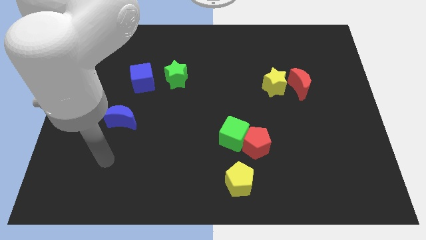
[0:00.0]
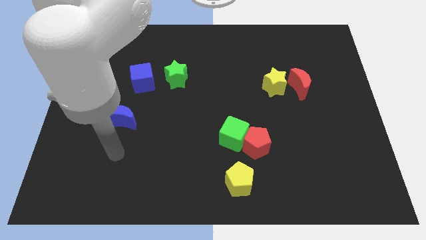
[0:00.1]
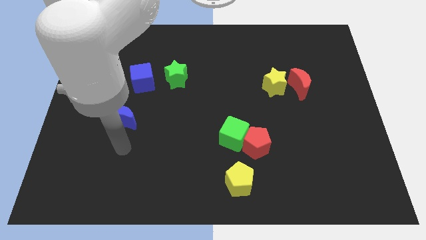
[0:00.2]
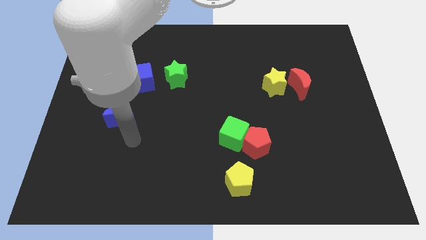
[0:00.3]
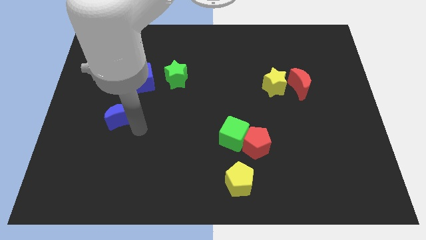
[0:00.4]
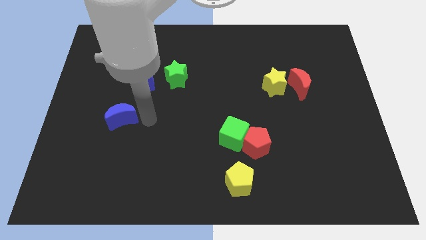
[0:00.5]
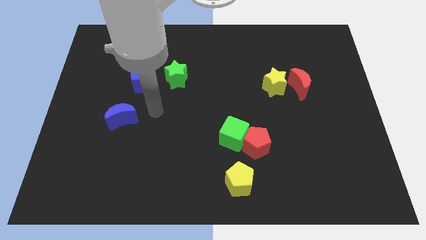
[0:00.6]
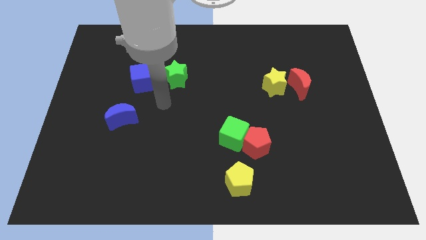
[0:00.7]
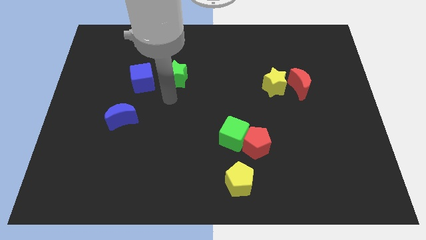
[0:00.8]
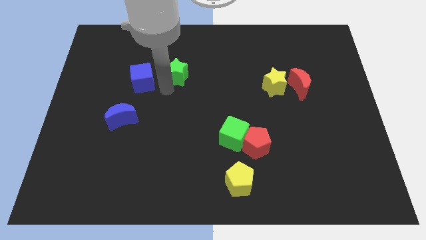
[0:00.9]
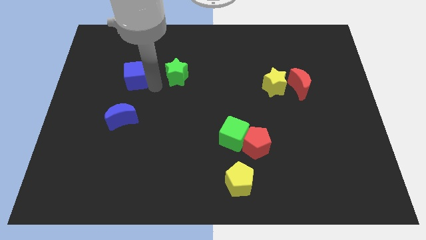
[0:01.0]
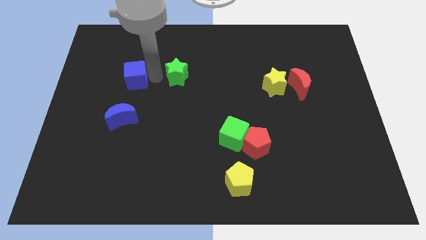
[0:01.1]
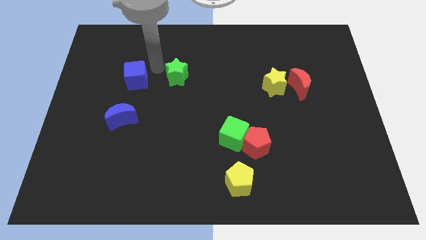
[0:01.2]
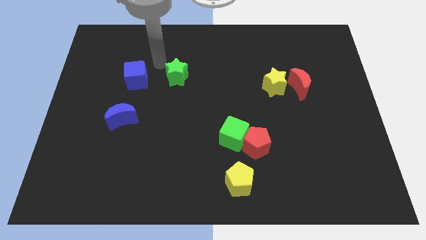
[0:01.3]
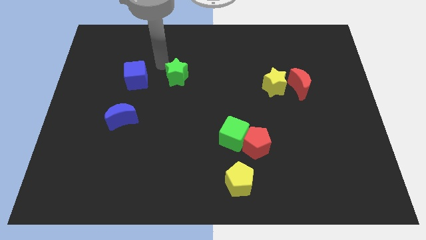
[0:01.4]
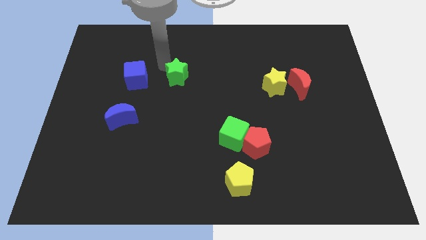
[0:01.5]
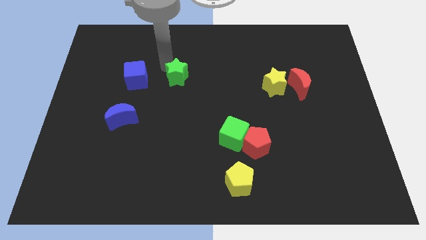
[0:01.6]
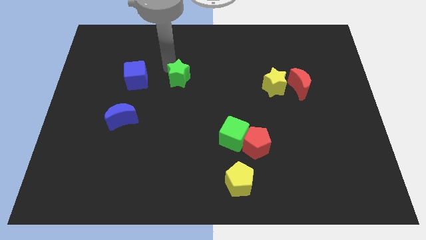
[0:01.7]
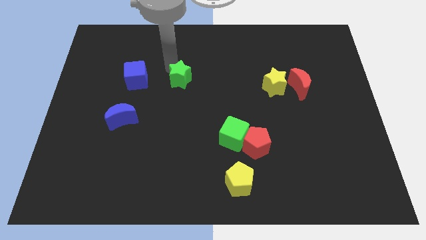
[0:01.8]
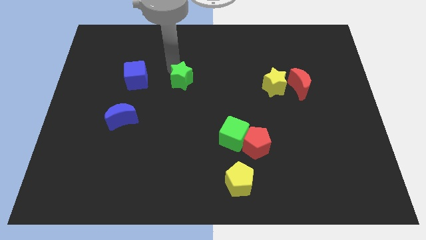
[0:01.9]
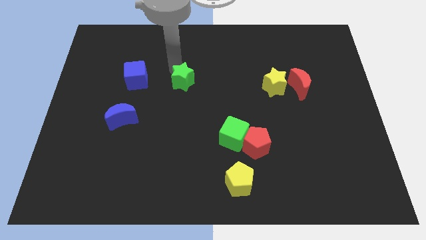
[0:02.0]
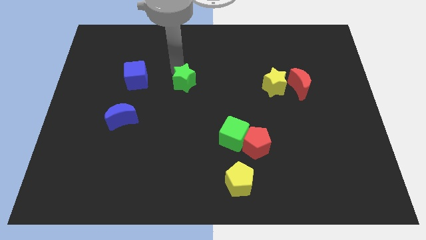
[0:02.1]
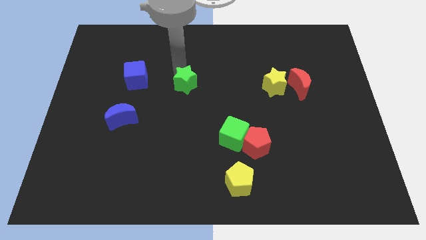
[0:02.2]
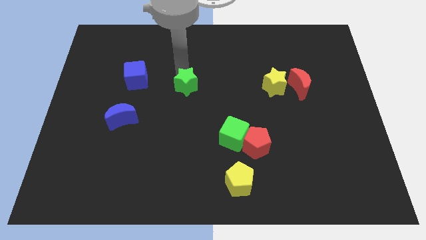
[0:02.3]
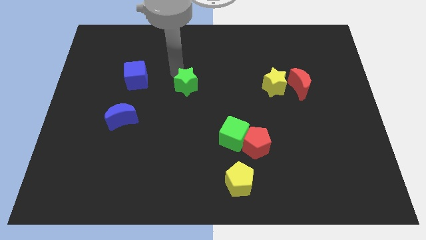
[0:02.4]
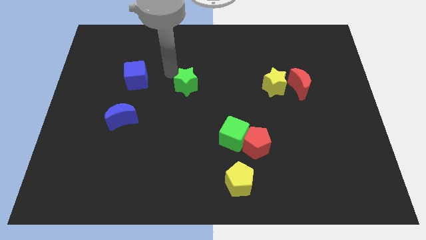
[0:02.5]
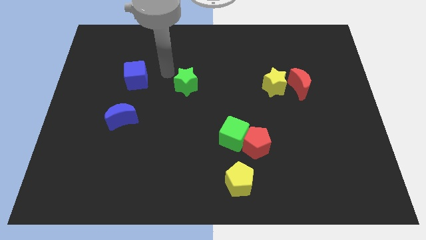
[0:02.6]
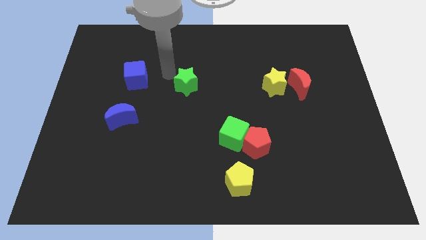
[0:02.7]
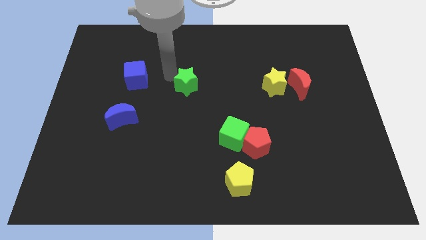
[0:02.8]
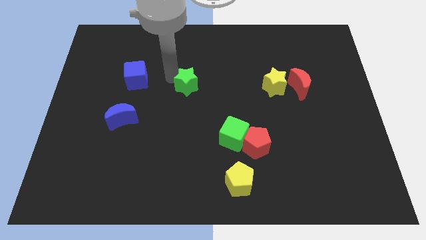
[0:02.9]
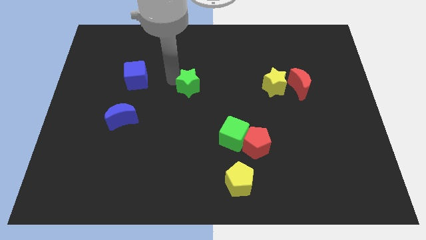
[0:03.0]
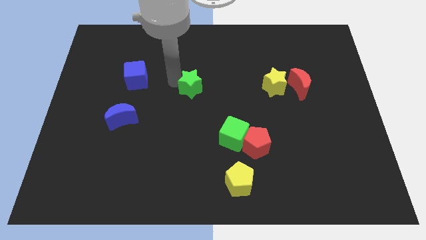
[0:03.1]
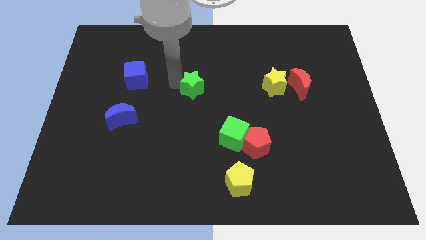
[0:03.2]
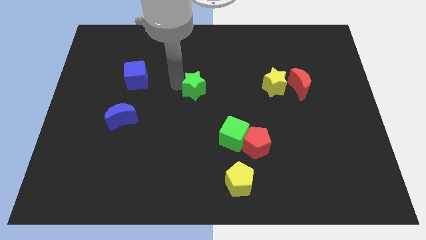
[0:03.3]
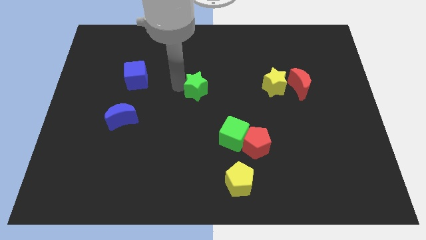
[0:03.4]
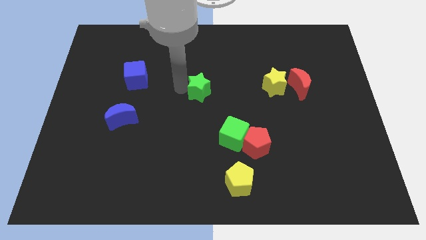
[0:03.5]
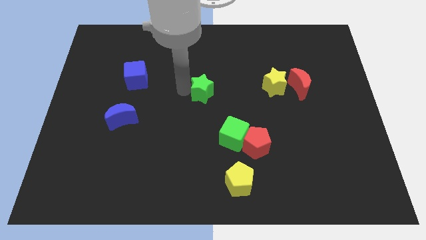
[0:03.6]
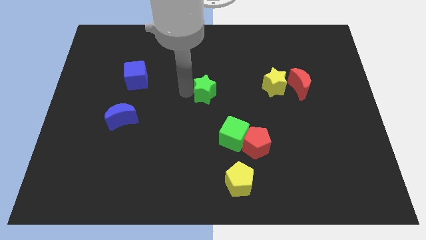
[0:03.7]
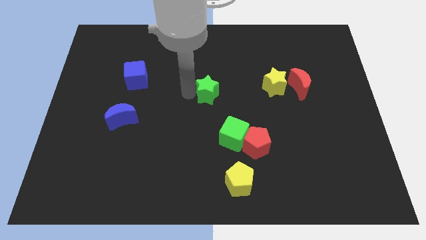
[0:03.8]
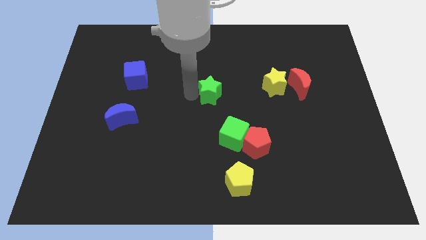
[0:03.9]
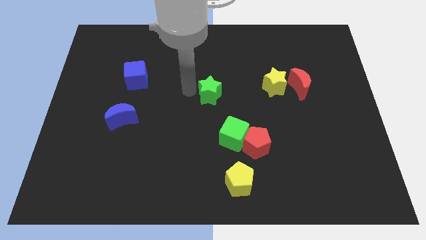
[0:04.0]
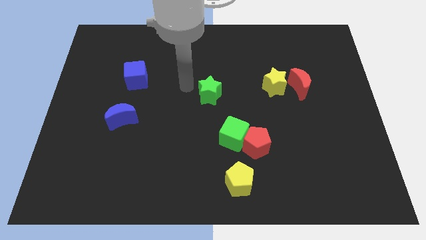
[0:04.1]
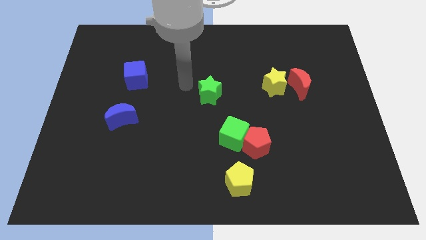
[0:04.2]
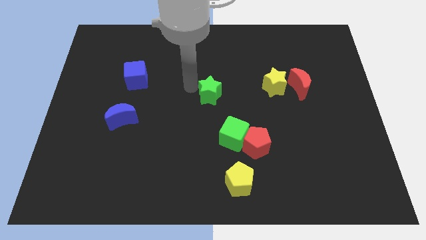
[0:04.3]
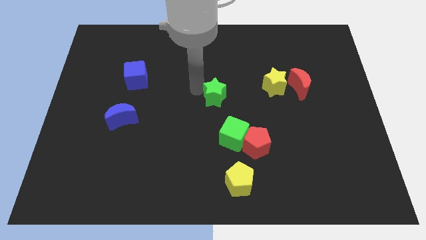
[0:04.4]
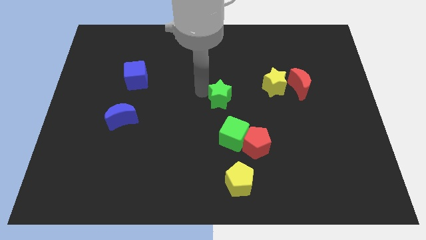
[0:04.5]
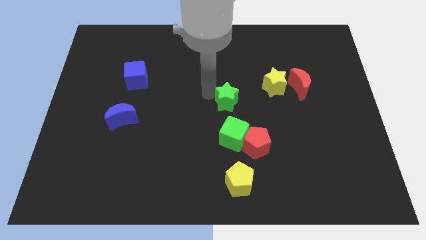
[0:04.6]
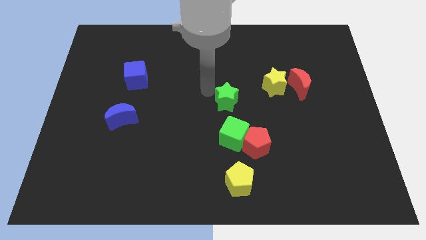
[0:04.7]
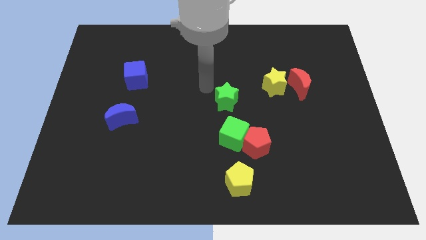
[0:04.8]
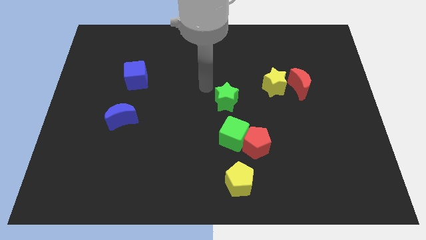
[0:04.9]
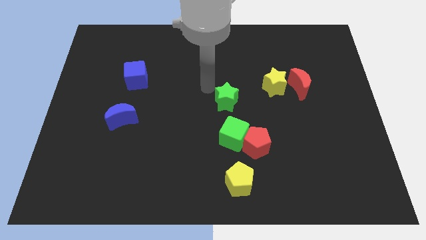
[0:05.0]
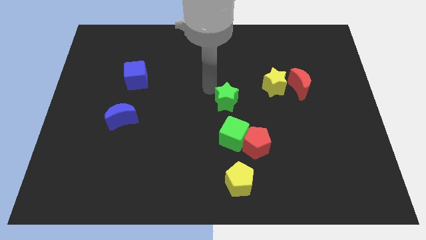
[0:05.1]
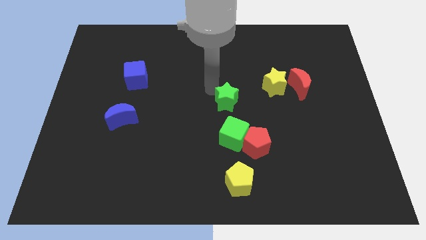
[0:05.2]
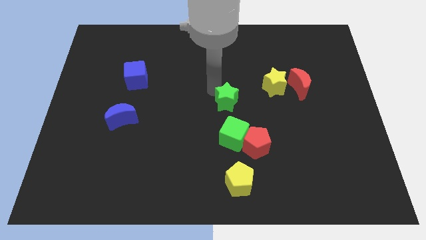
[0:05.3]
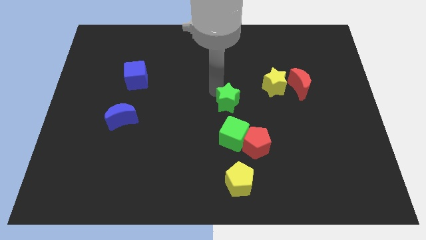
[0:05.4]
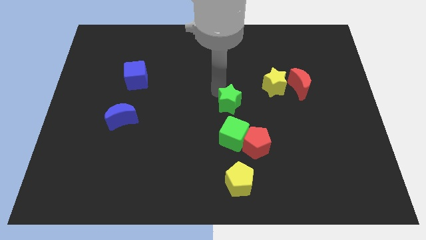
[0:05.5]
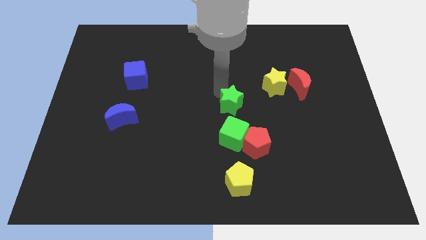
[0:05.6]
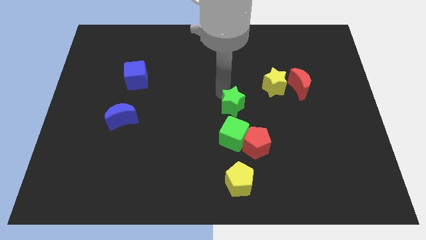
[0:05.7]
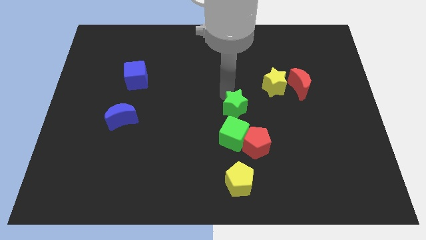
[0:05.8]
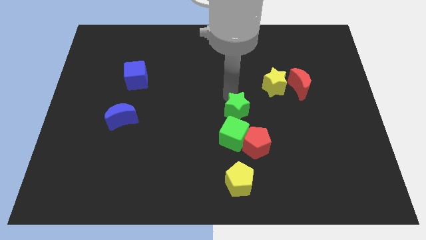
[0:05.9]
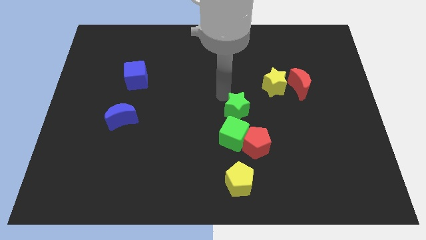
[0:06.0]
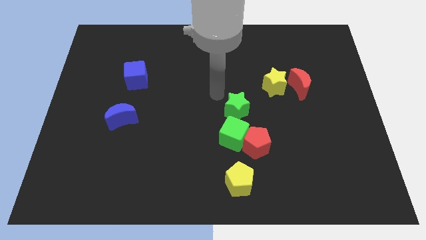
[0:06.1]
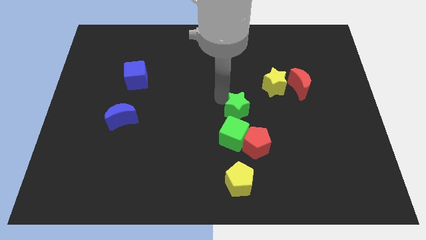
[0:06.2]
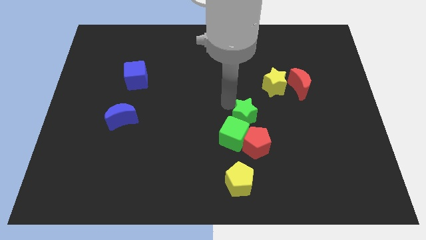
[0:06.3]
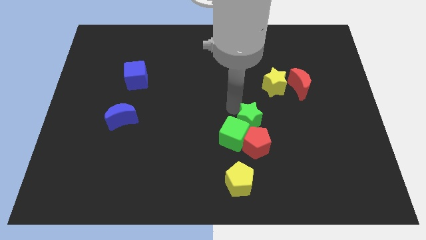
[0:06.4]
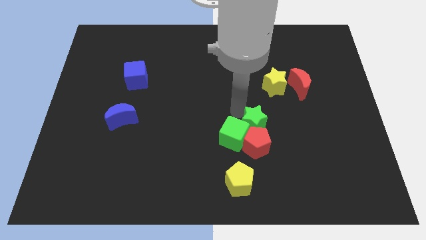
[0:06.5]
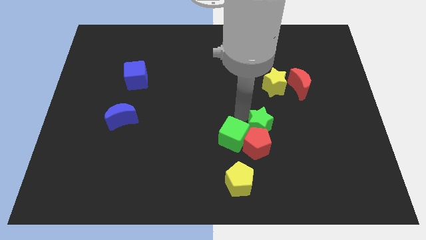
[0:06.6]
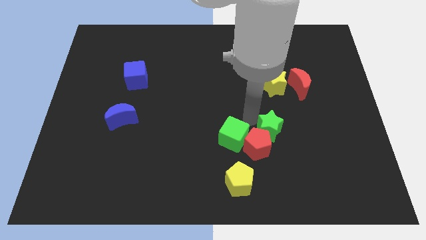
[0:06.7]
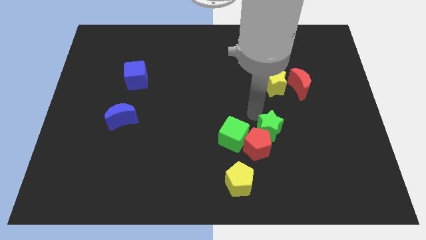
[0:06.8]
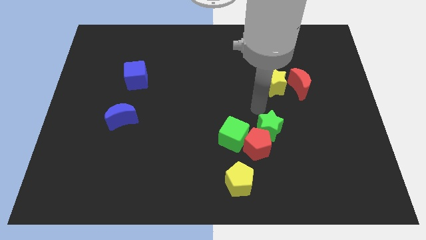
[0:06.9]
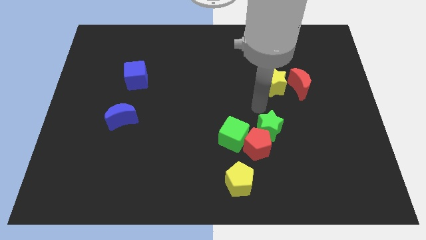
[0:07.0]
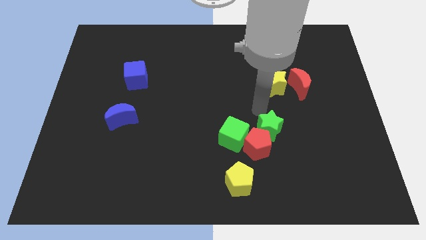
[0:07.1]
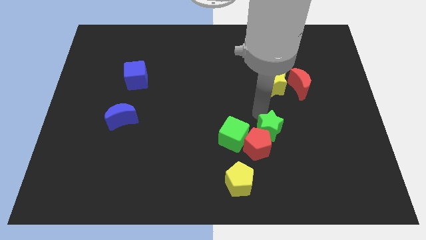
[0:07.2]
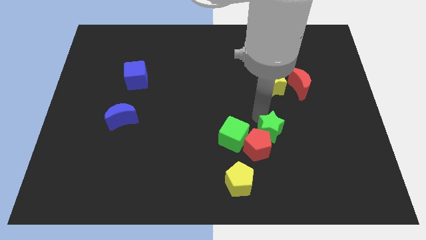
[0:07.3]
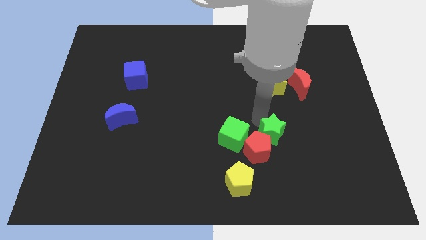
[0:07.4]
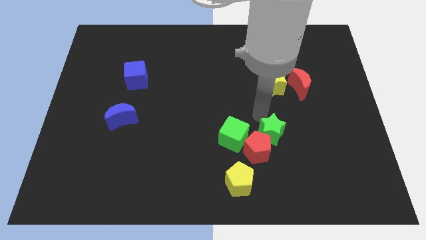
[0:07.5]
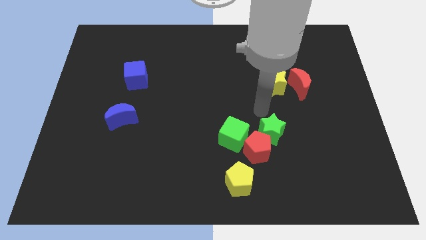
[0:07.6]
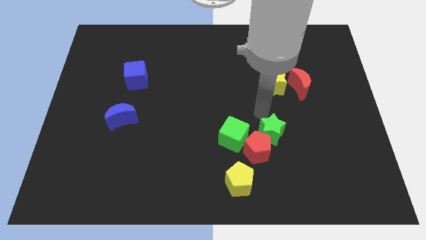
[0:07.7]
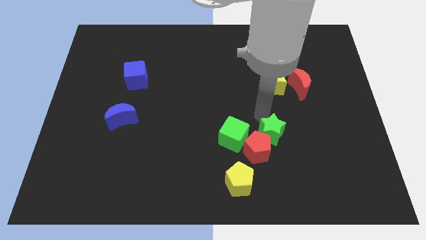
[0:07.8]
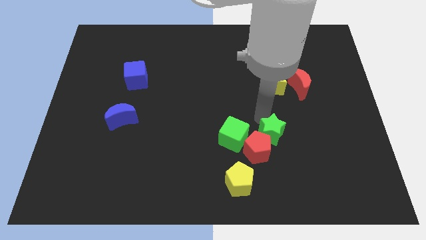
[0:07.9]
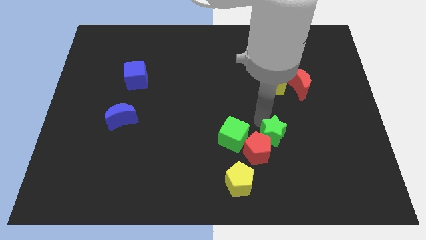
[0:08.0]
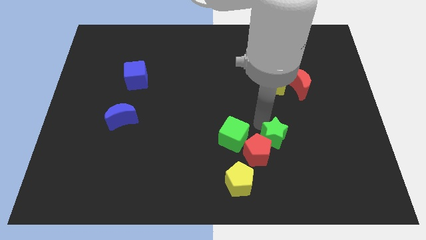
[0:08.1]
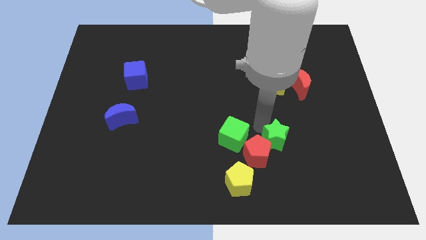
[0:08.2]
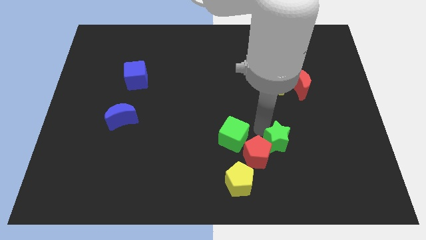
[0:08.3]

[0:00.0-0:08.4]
slide the green star to the top right side of the yellow pentagon
